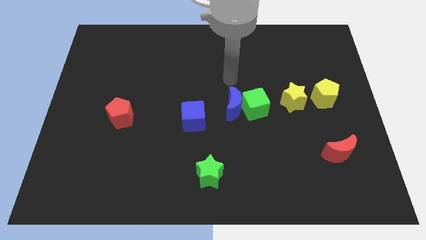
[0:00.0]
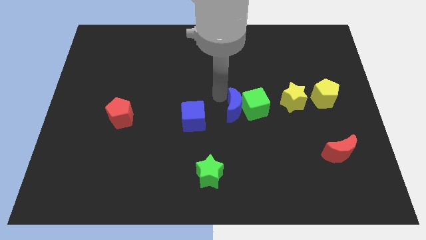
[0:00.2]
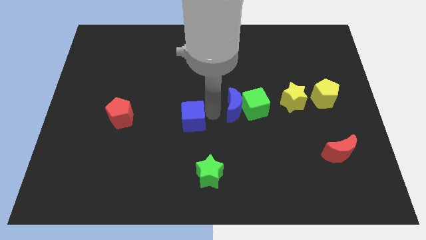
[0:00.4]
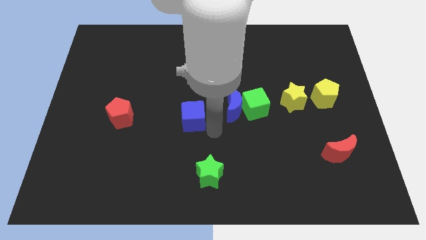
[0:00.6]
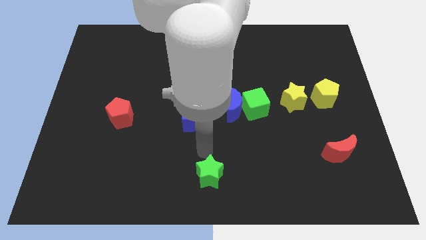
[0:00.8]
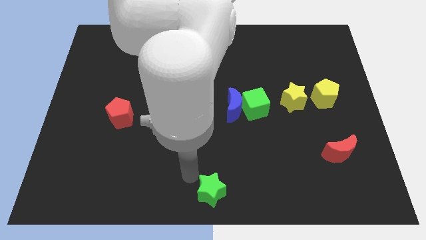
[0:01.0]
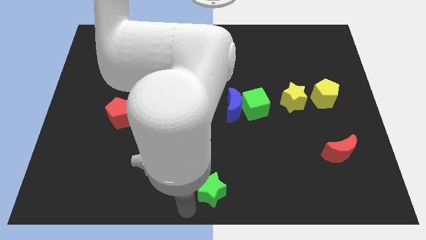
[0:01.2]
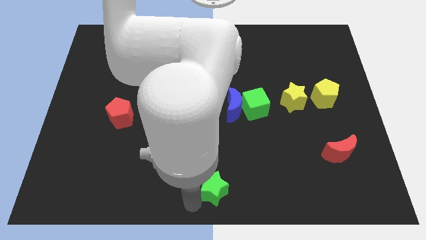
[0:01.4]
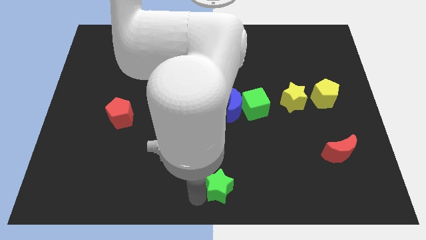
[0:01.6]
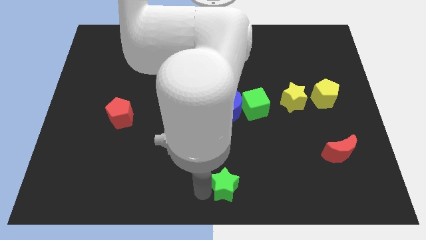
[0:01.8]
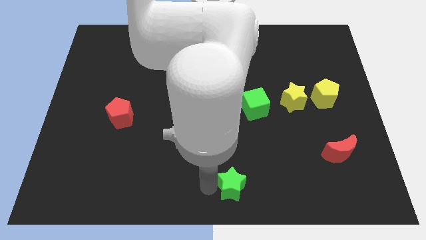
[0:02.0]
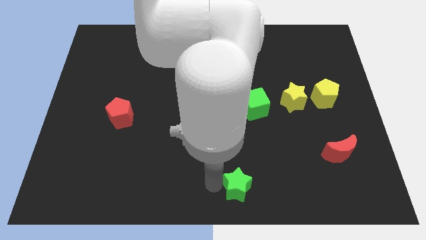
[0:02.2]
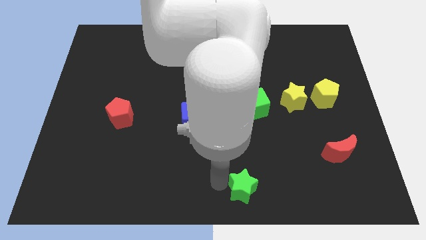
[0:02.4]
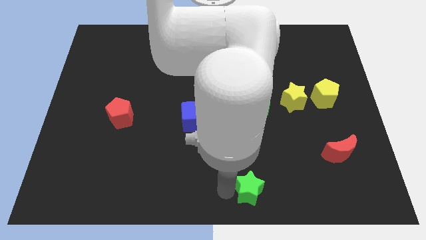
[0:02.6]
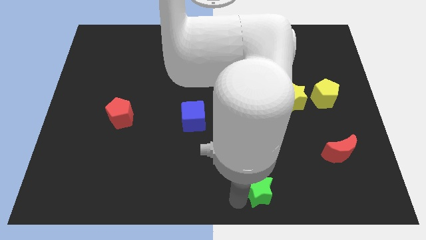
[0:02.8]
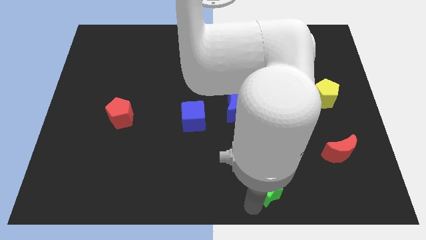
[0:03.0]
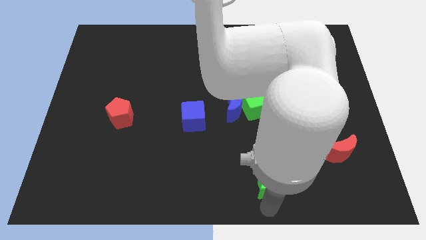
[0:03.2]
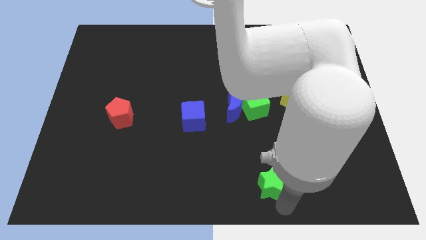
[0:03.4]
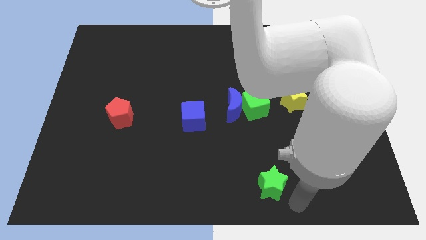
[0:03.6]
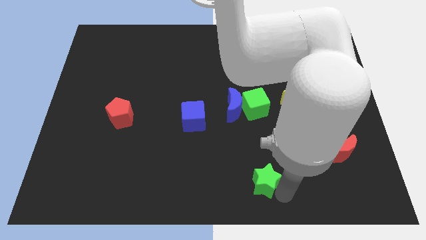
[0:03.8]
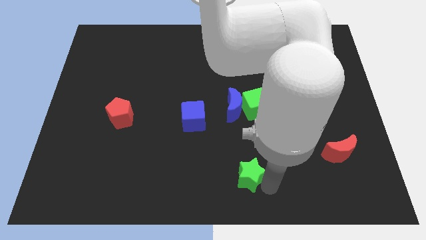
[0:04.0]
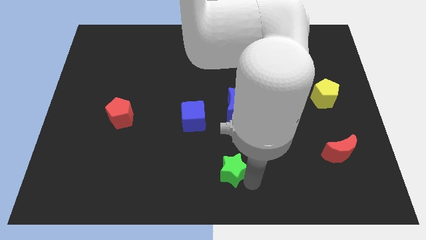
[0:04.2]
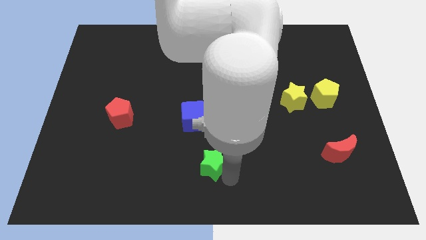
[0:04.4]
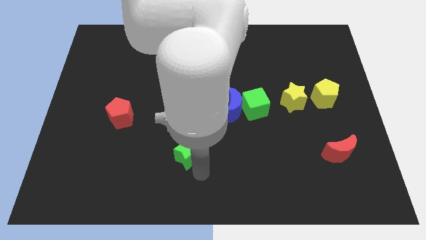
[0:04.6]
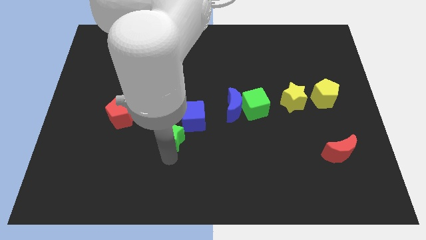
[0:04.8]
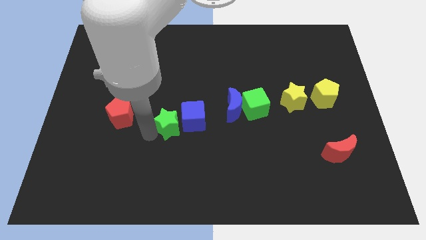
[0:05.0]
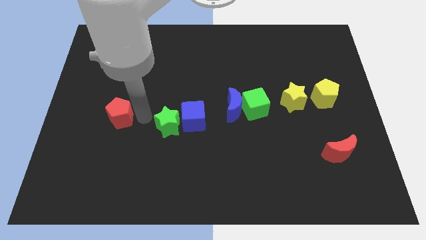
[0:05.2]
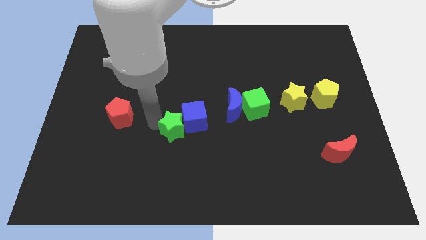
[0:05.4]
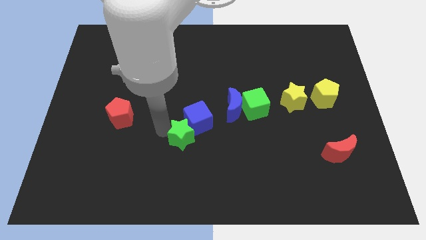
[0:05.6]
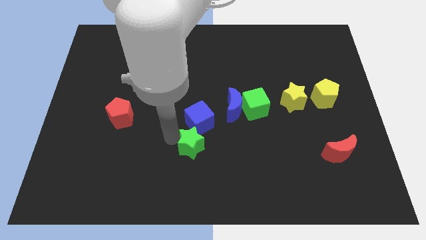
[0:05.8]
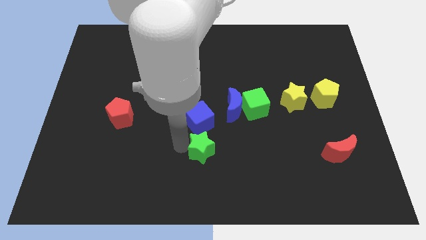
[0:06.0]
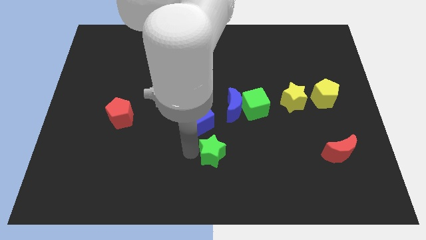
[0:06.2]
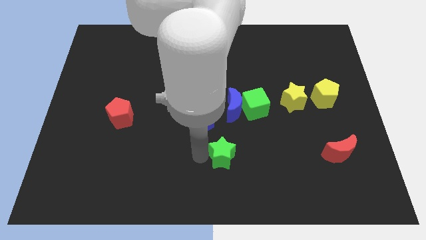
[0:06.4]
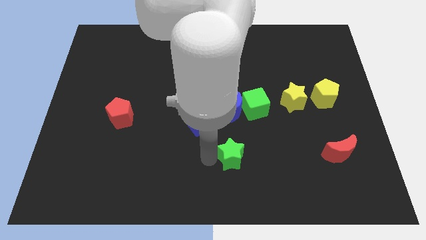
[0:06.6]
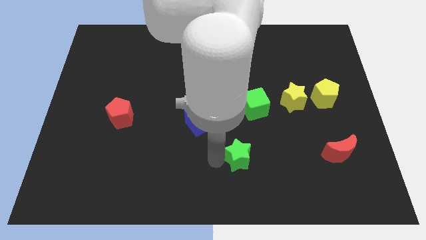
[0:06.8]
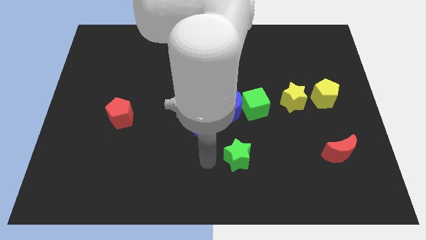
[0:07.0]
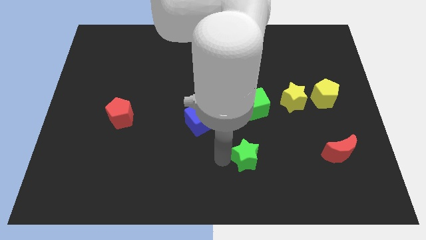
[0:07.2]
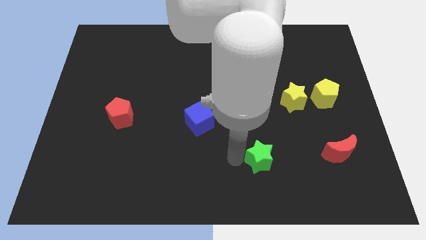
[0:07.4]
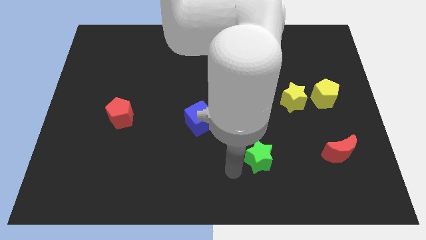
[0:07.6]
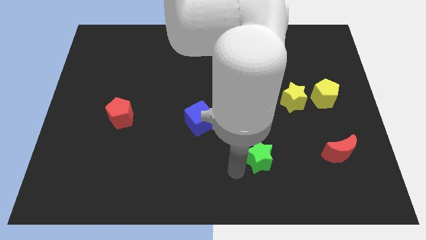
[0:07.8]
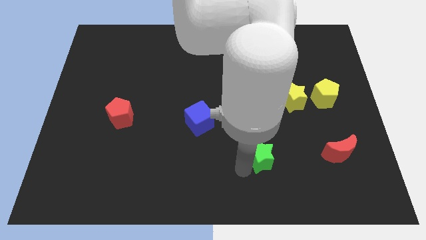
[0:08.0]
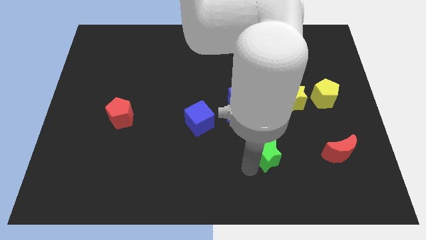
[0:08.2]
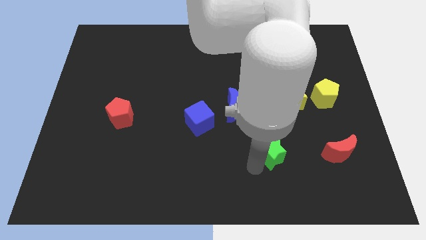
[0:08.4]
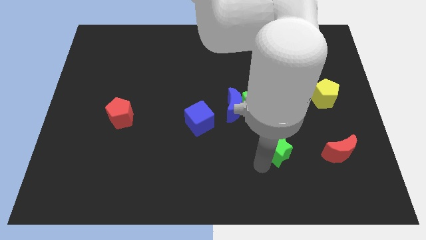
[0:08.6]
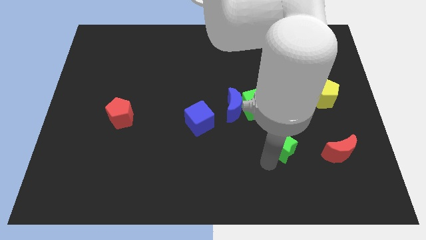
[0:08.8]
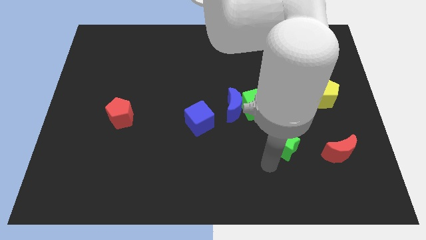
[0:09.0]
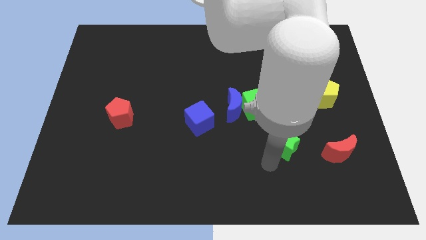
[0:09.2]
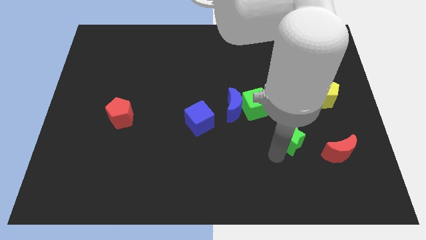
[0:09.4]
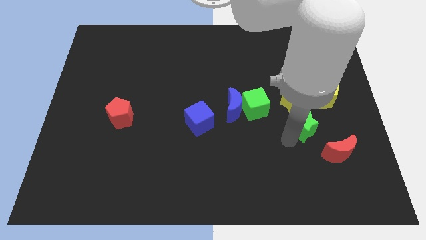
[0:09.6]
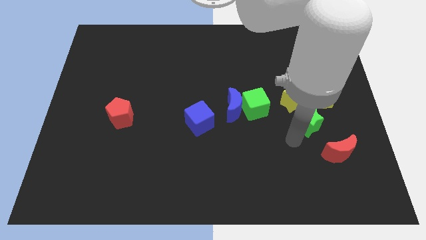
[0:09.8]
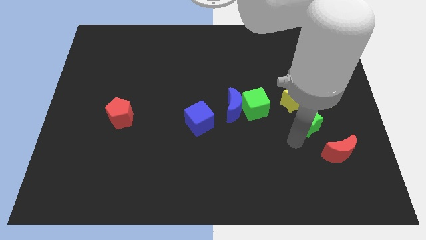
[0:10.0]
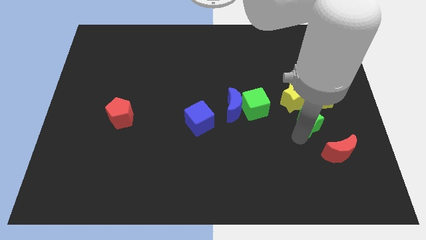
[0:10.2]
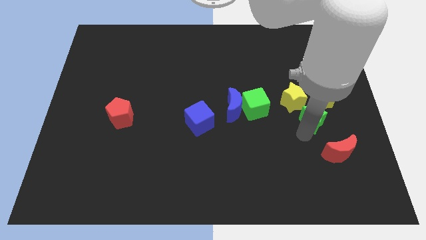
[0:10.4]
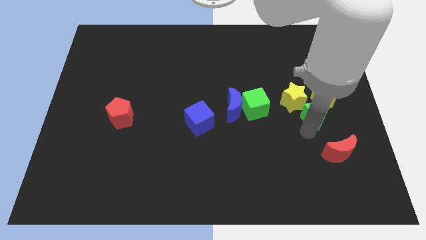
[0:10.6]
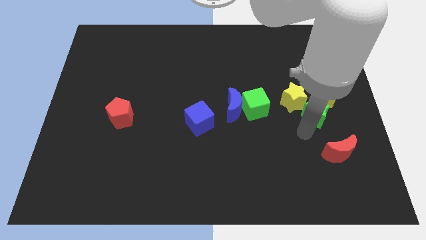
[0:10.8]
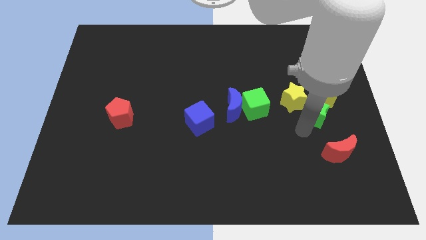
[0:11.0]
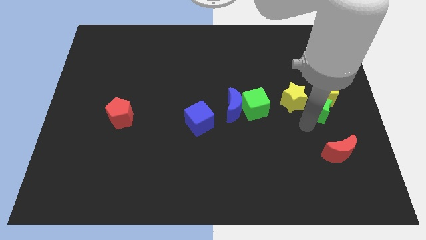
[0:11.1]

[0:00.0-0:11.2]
push the green star towards the yellow pentagon

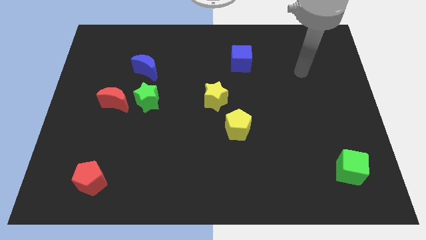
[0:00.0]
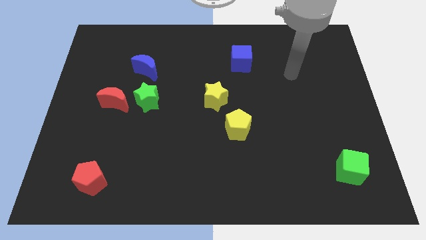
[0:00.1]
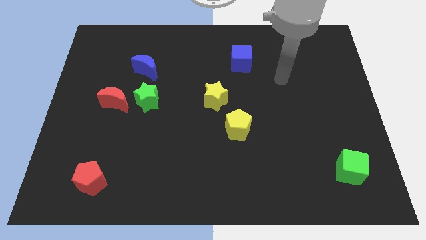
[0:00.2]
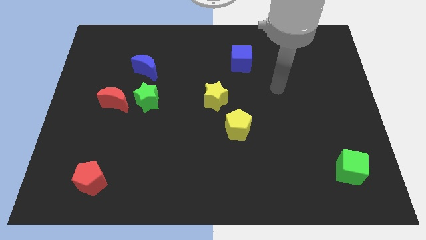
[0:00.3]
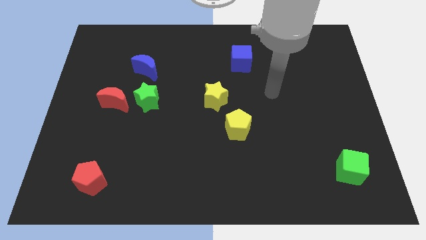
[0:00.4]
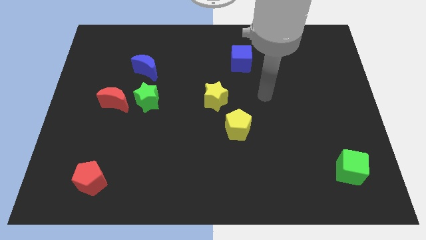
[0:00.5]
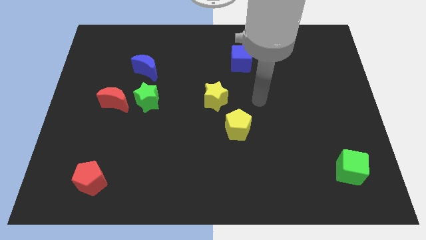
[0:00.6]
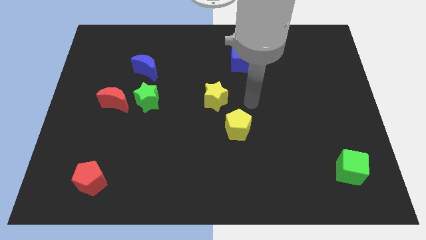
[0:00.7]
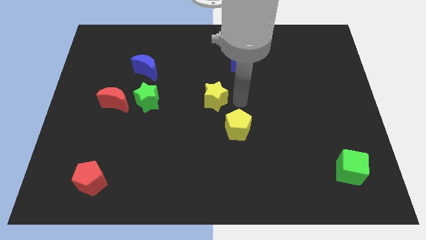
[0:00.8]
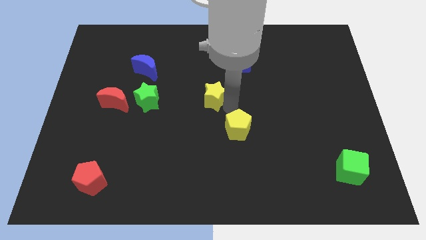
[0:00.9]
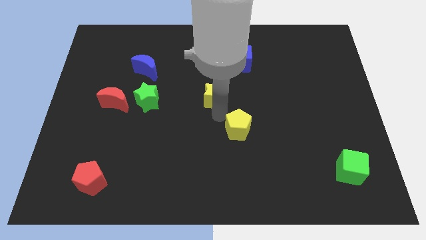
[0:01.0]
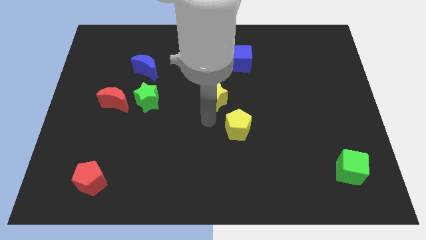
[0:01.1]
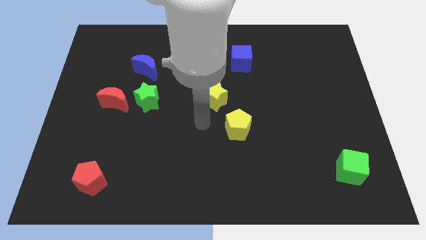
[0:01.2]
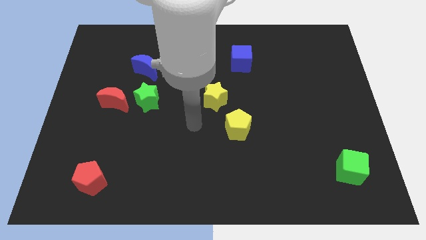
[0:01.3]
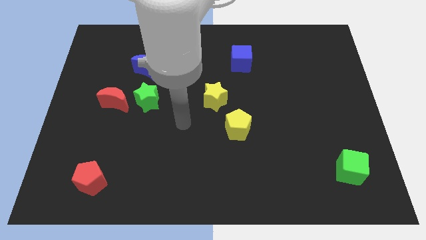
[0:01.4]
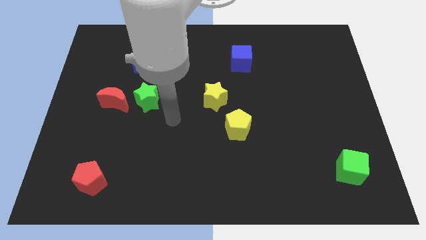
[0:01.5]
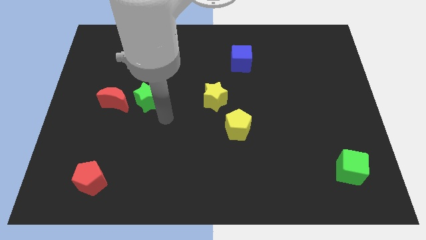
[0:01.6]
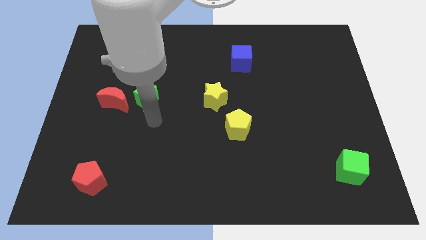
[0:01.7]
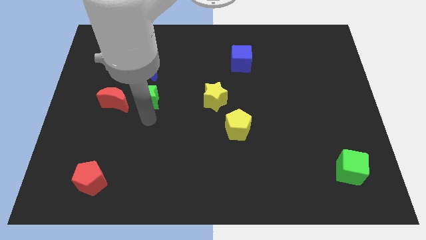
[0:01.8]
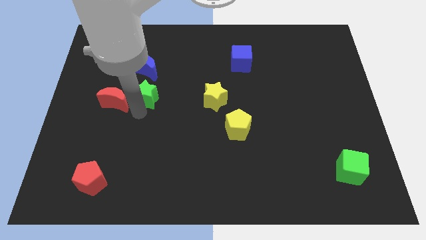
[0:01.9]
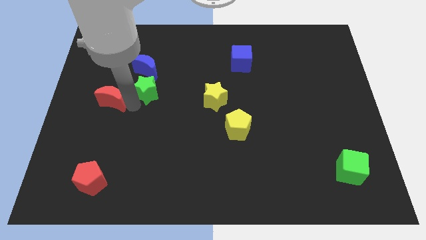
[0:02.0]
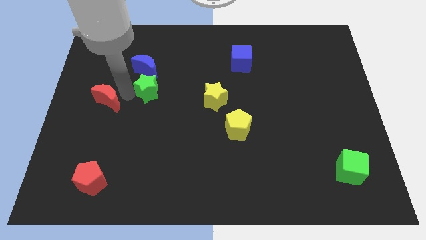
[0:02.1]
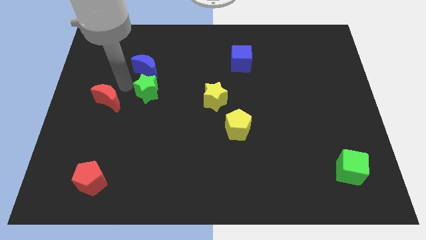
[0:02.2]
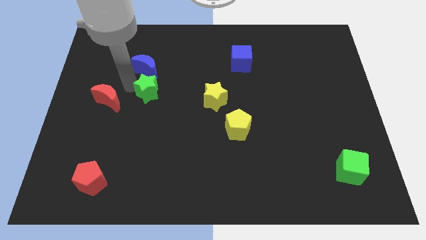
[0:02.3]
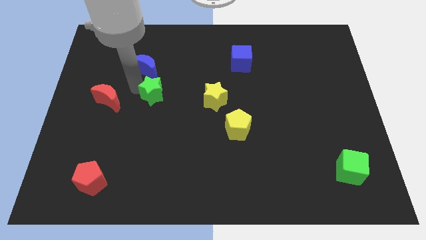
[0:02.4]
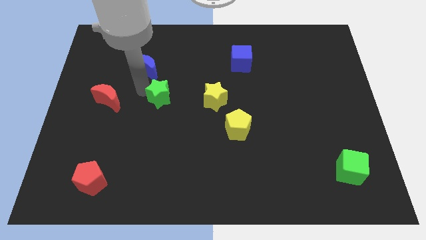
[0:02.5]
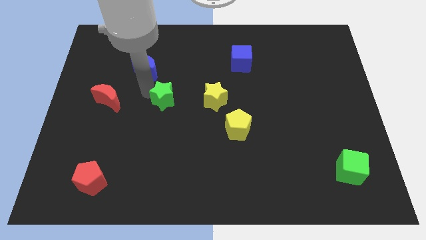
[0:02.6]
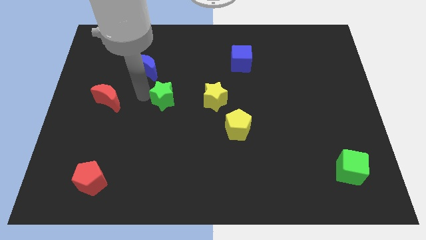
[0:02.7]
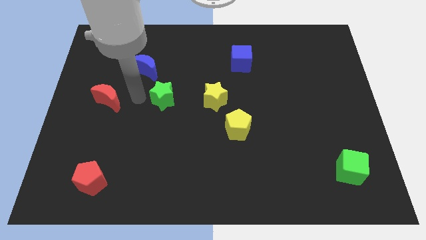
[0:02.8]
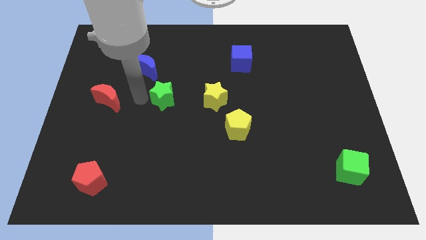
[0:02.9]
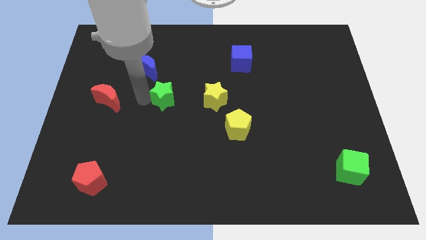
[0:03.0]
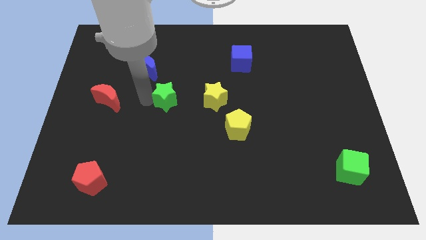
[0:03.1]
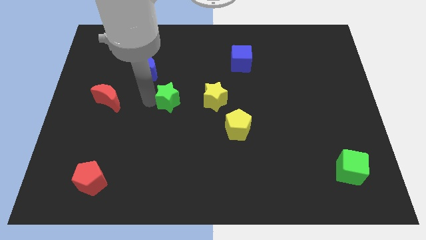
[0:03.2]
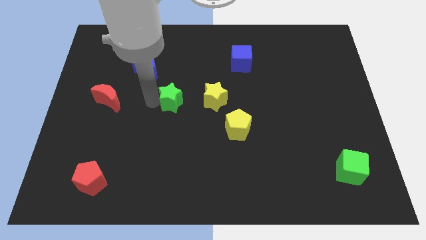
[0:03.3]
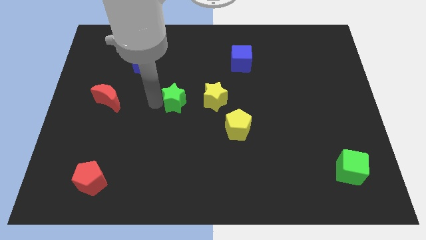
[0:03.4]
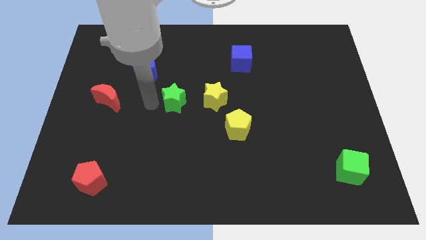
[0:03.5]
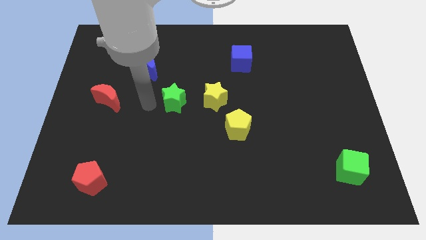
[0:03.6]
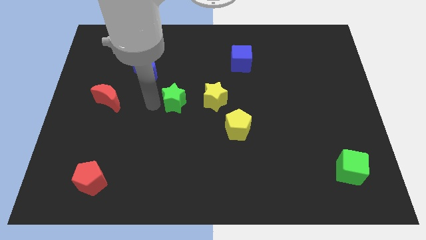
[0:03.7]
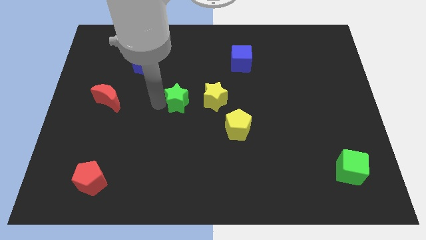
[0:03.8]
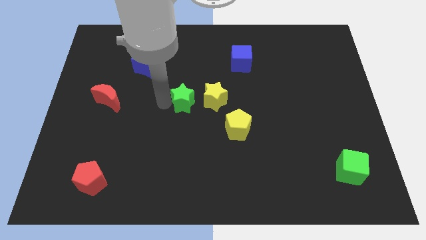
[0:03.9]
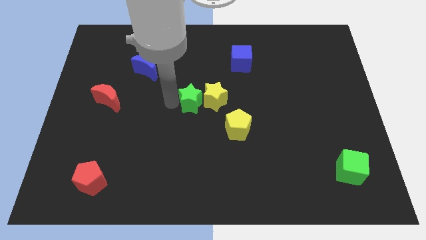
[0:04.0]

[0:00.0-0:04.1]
put the green star close to the yellow star
